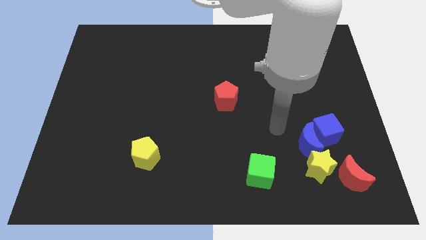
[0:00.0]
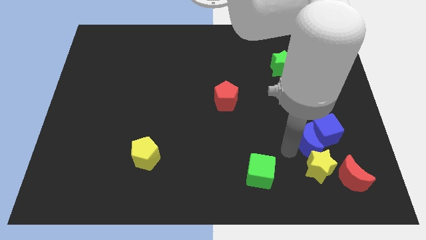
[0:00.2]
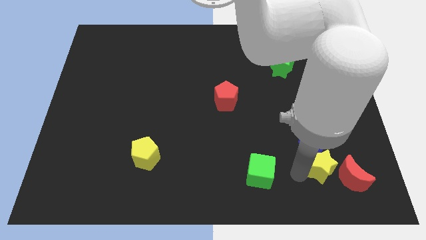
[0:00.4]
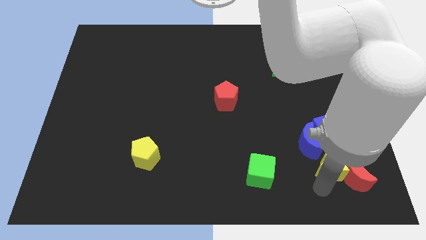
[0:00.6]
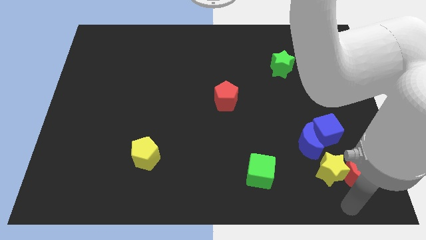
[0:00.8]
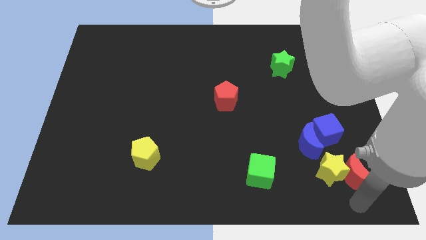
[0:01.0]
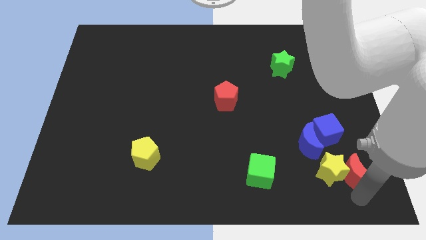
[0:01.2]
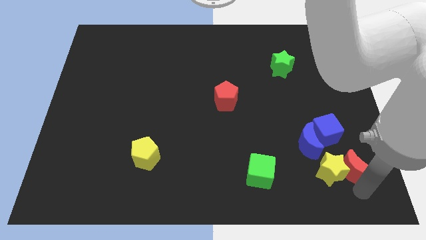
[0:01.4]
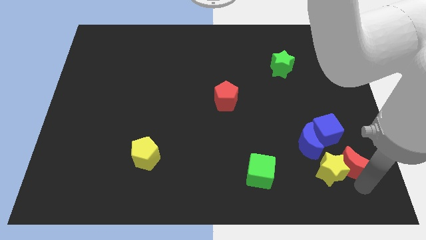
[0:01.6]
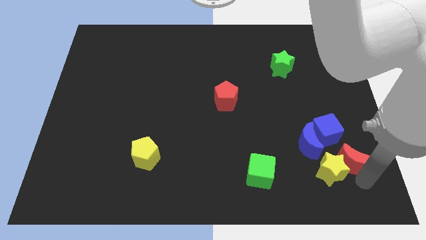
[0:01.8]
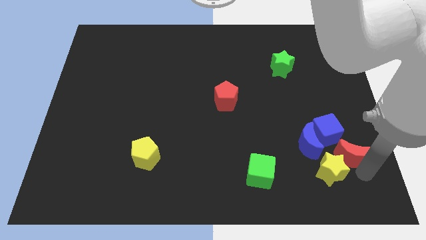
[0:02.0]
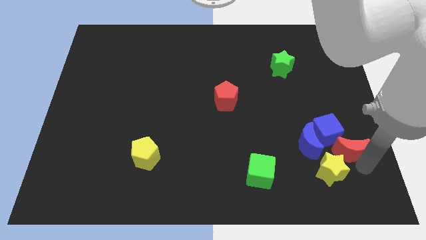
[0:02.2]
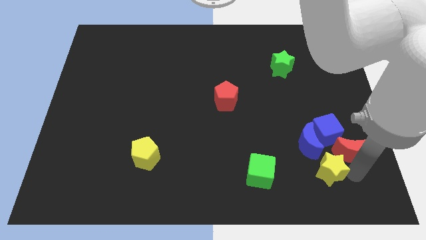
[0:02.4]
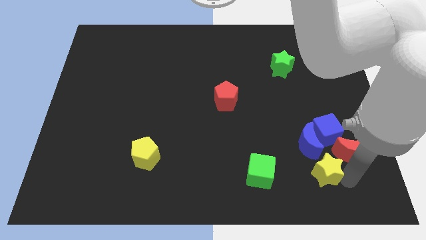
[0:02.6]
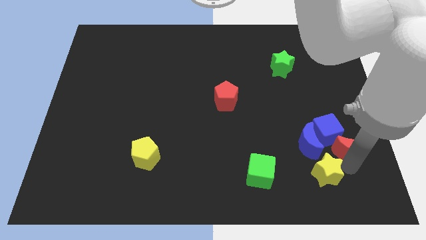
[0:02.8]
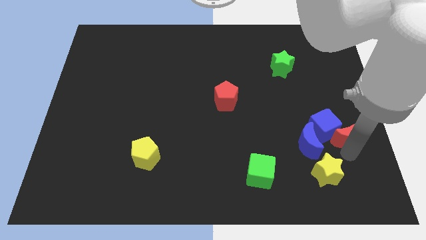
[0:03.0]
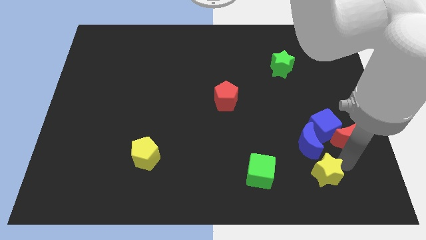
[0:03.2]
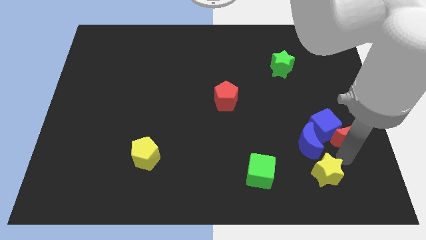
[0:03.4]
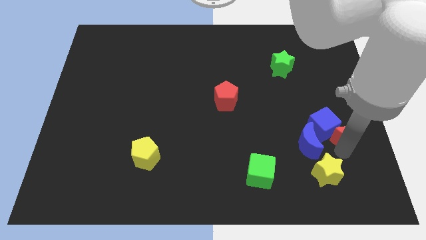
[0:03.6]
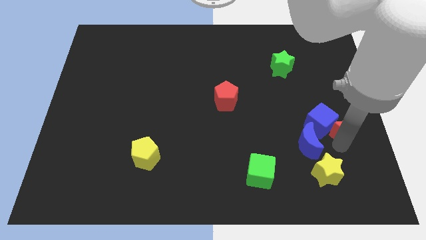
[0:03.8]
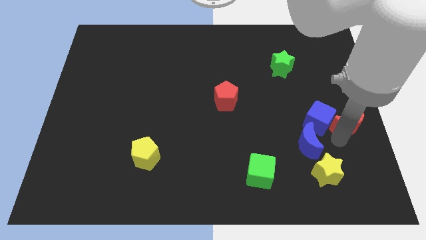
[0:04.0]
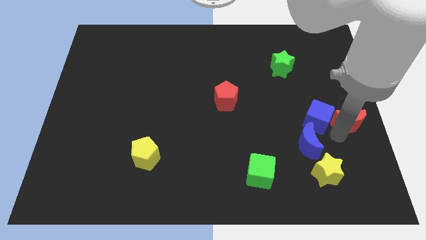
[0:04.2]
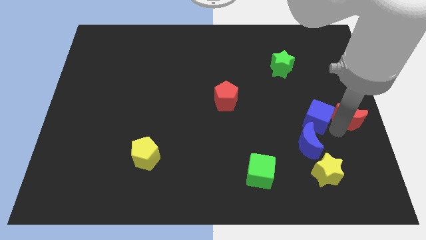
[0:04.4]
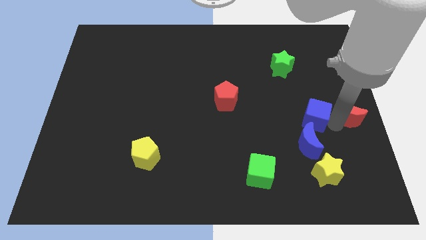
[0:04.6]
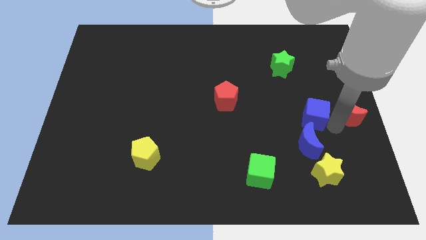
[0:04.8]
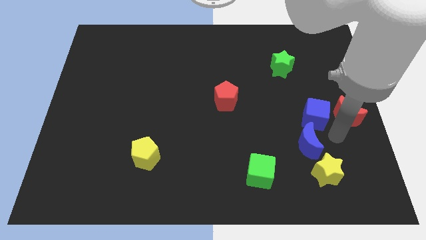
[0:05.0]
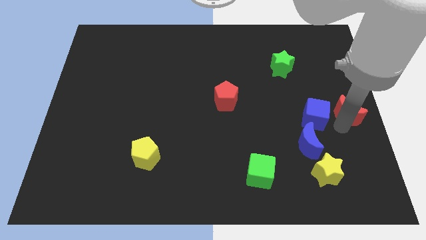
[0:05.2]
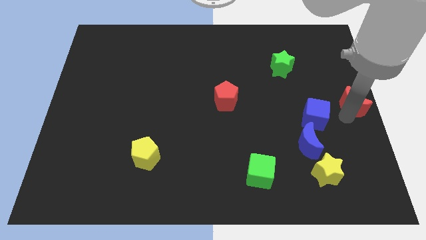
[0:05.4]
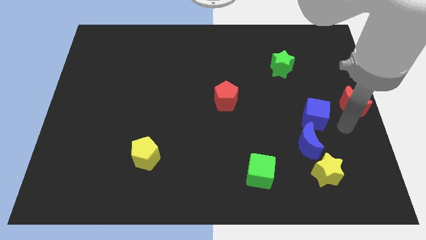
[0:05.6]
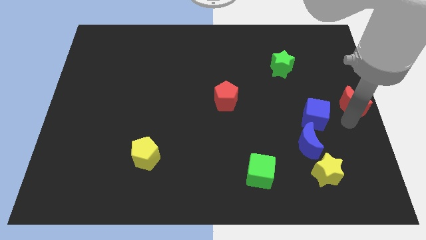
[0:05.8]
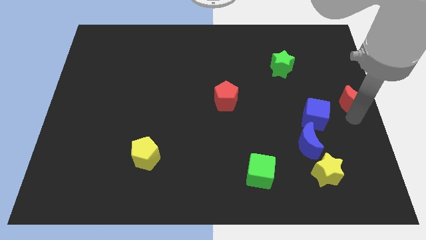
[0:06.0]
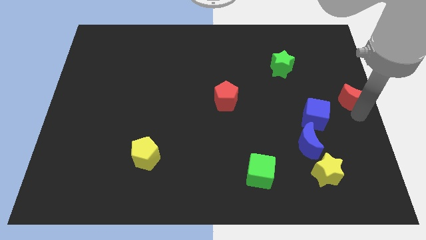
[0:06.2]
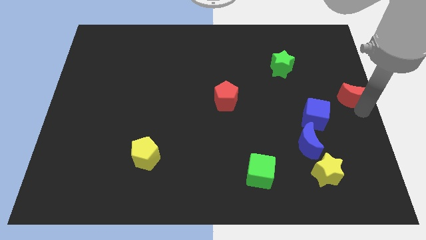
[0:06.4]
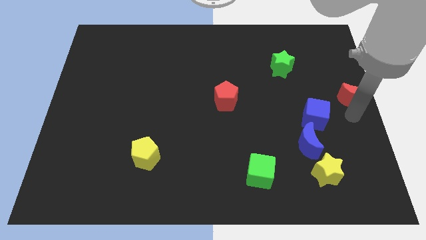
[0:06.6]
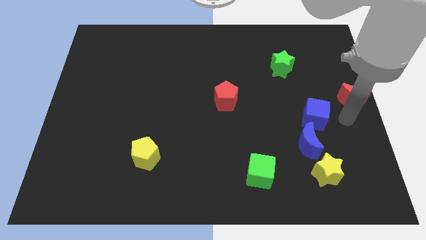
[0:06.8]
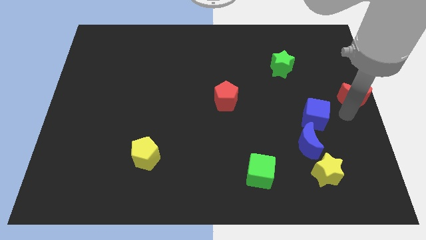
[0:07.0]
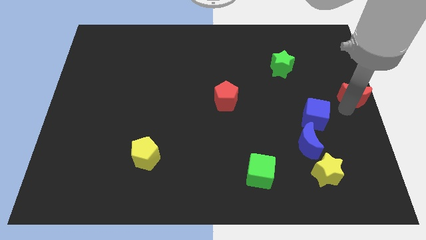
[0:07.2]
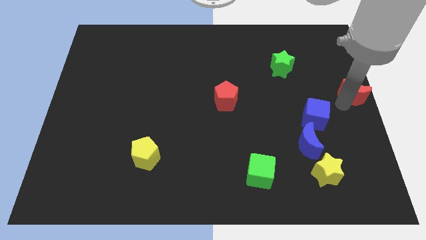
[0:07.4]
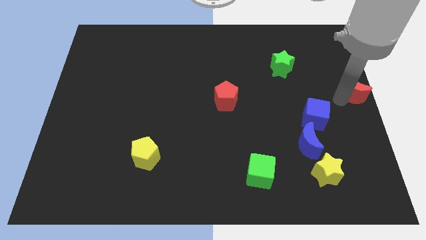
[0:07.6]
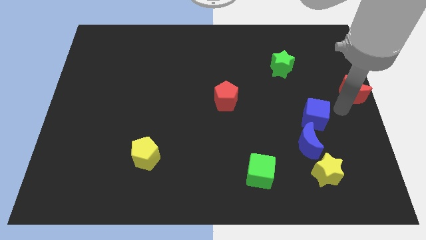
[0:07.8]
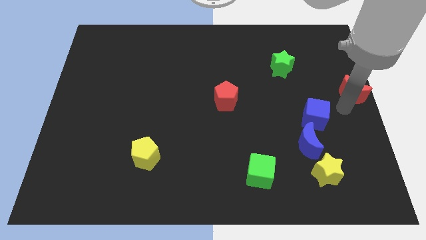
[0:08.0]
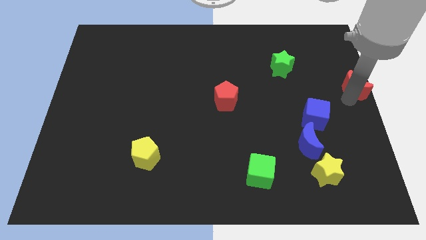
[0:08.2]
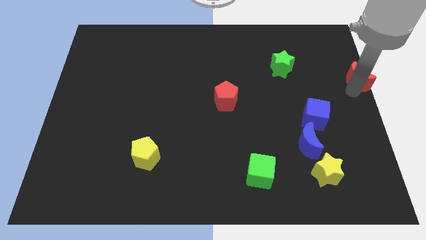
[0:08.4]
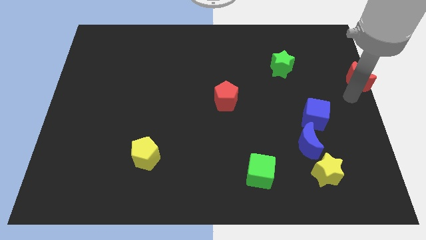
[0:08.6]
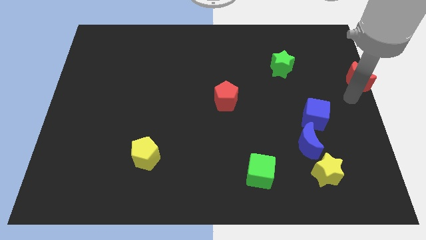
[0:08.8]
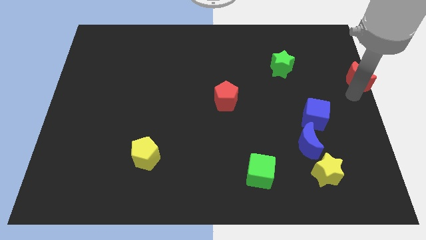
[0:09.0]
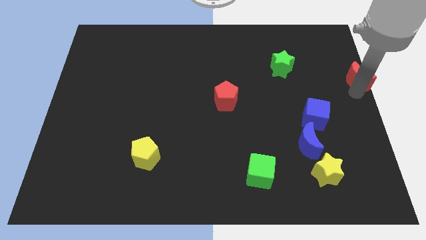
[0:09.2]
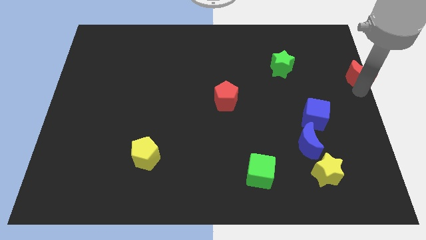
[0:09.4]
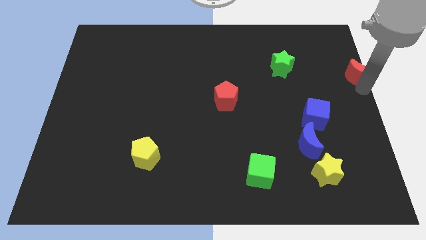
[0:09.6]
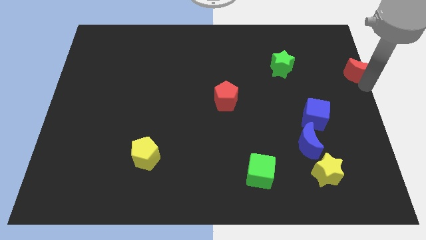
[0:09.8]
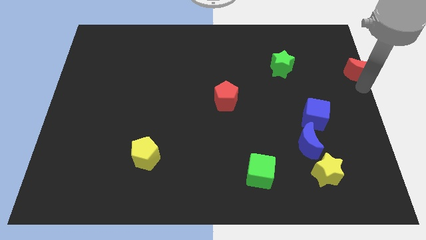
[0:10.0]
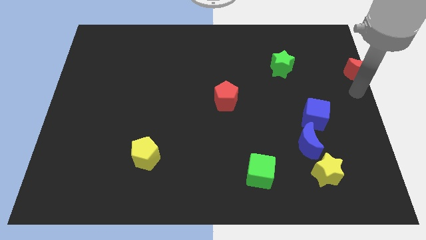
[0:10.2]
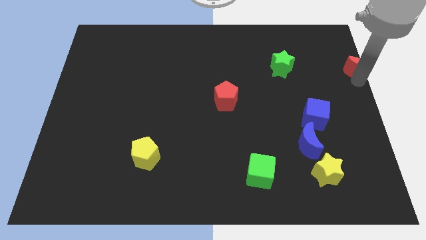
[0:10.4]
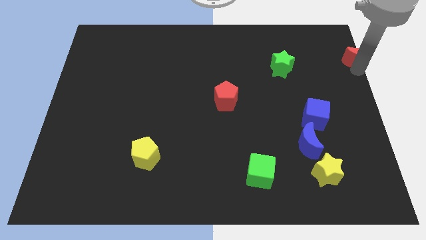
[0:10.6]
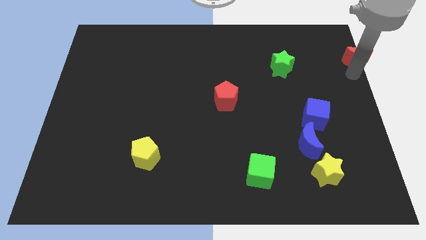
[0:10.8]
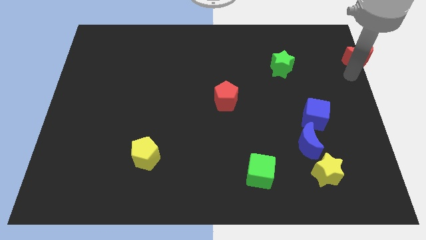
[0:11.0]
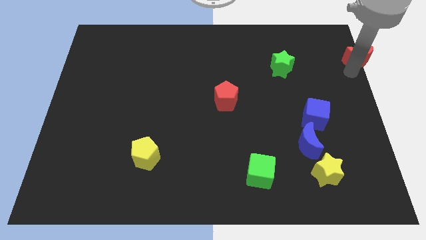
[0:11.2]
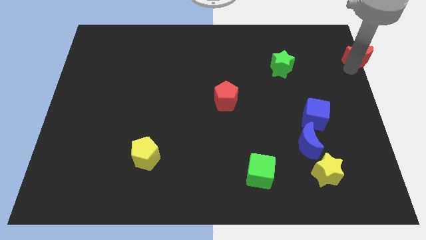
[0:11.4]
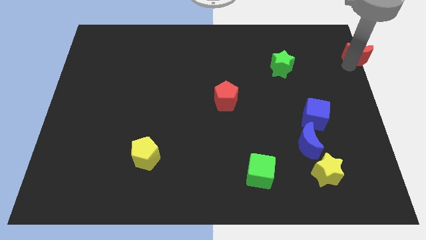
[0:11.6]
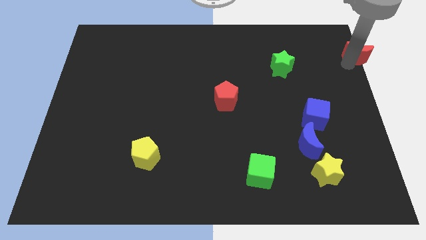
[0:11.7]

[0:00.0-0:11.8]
slide the red moon to the upper right corner

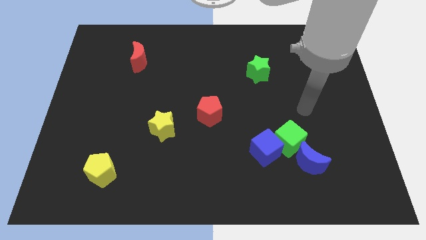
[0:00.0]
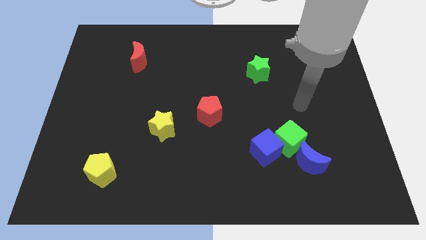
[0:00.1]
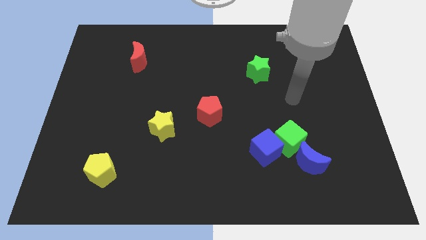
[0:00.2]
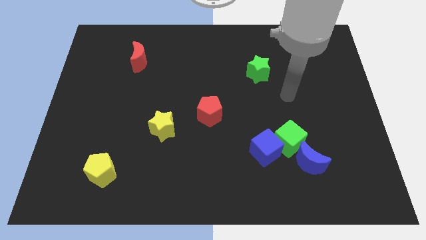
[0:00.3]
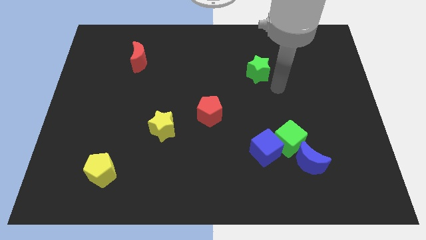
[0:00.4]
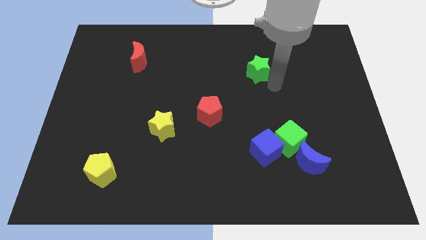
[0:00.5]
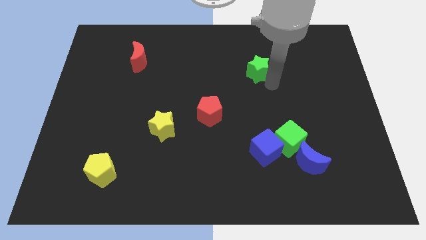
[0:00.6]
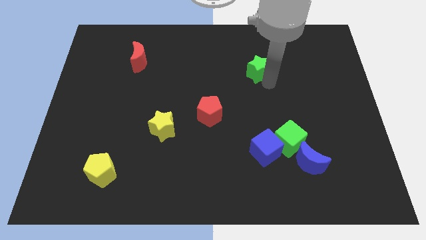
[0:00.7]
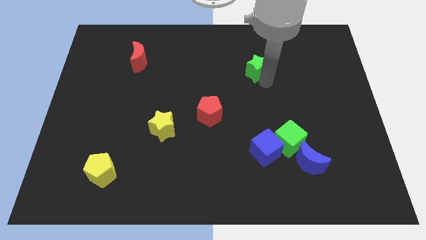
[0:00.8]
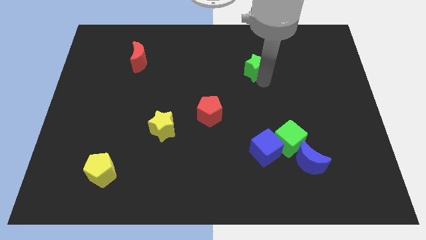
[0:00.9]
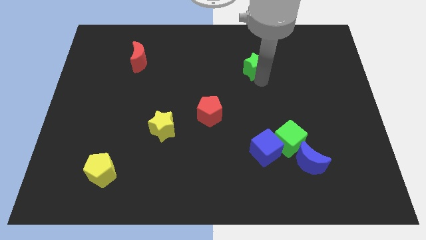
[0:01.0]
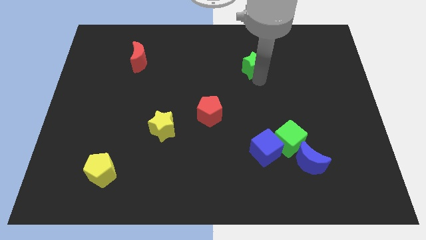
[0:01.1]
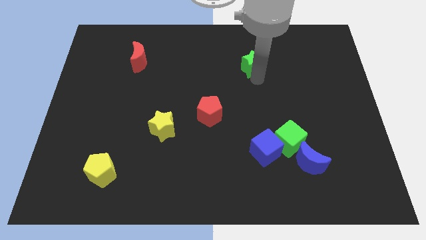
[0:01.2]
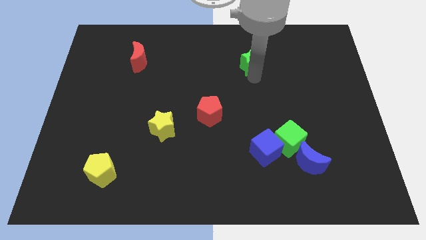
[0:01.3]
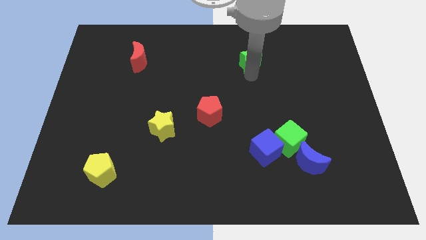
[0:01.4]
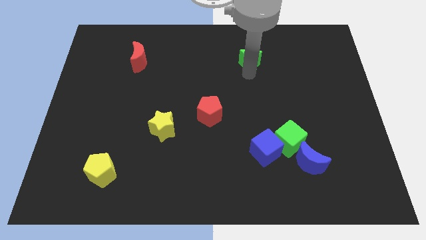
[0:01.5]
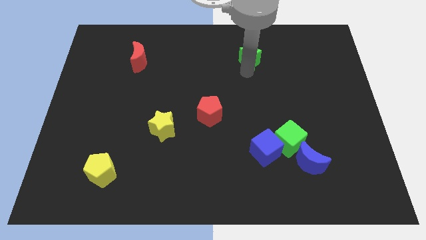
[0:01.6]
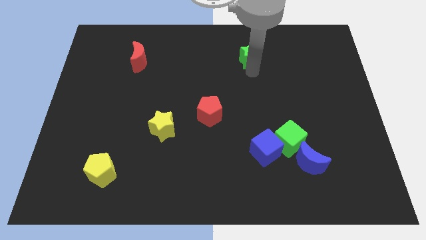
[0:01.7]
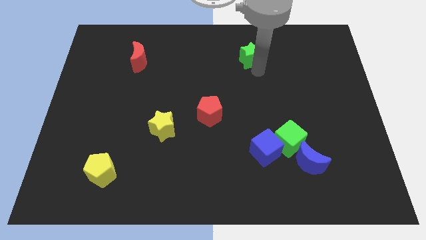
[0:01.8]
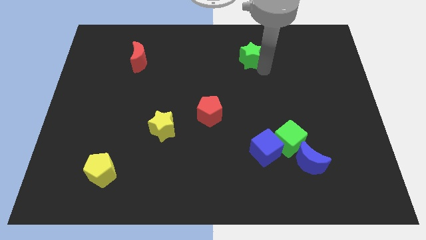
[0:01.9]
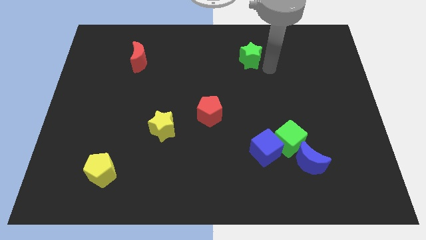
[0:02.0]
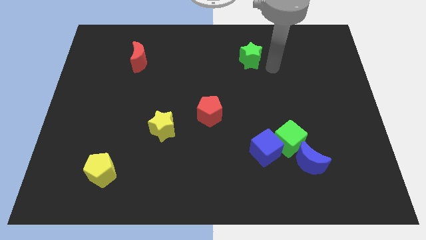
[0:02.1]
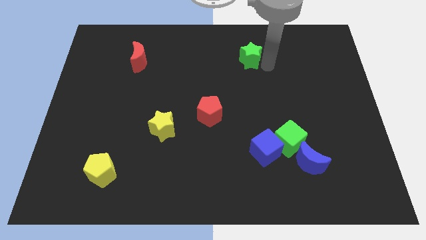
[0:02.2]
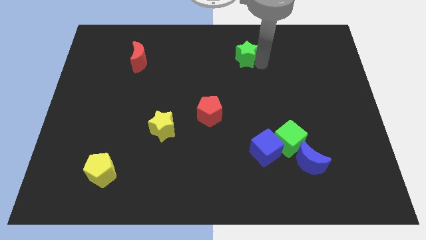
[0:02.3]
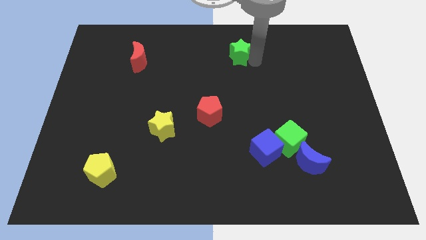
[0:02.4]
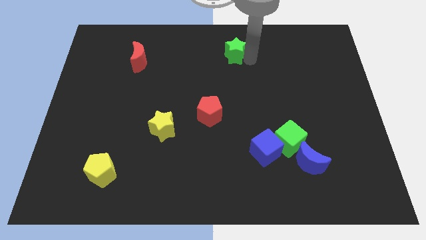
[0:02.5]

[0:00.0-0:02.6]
push the green star to the top side
